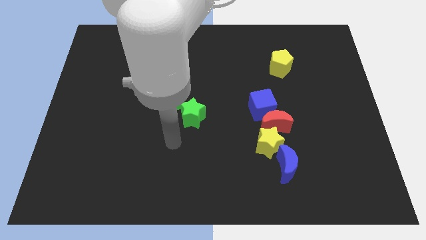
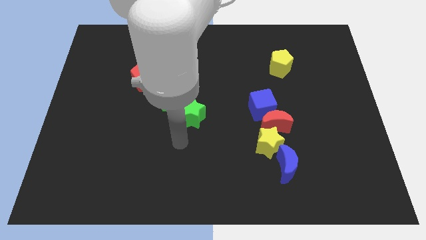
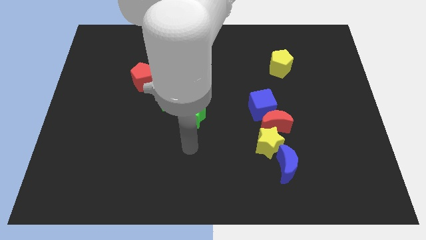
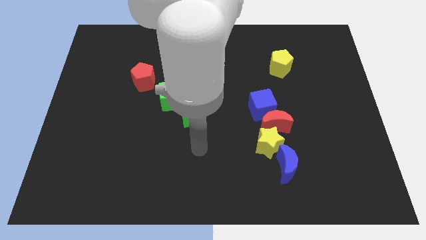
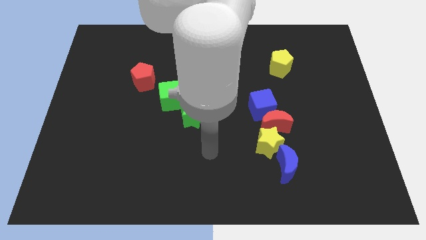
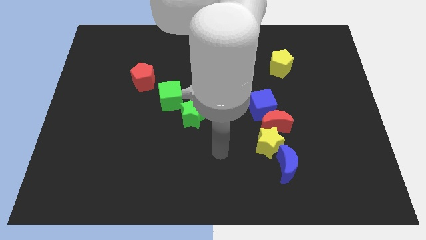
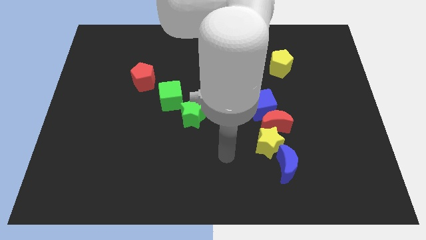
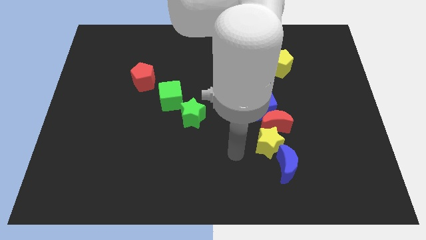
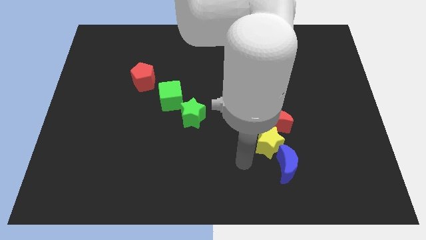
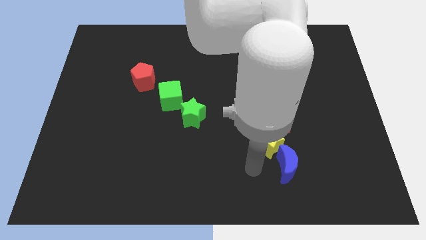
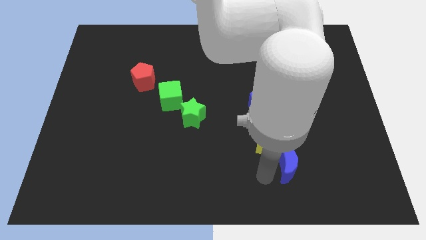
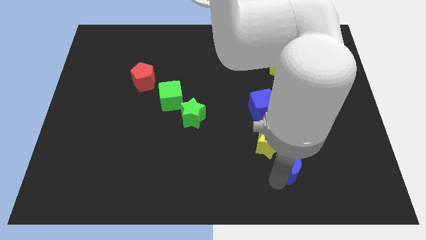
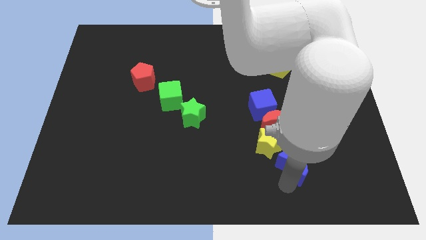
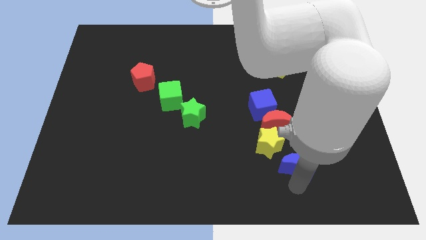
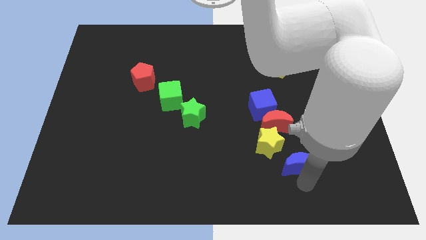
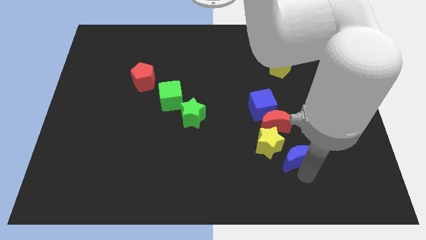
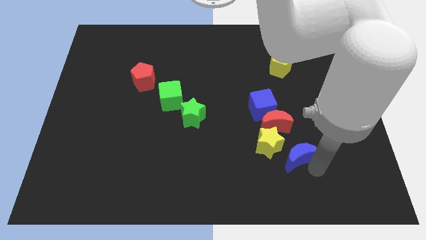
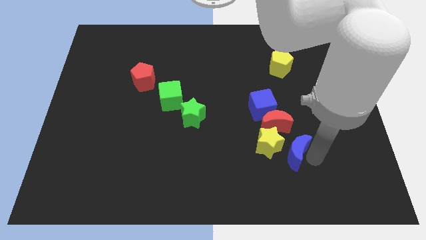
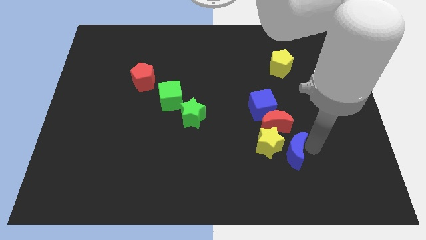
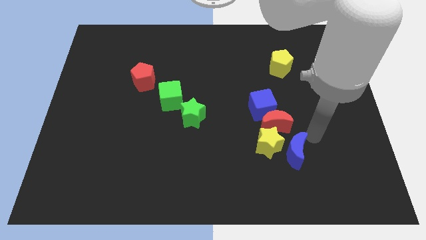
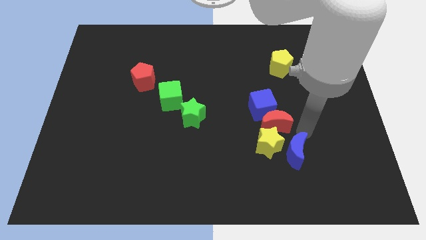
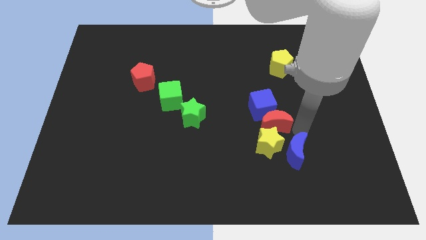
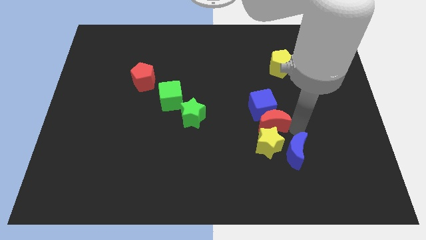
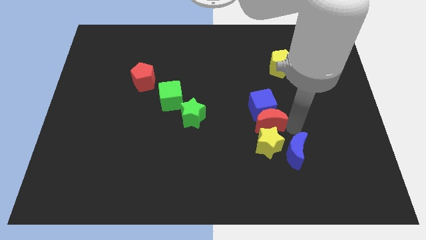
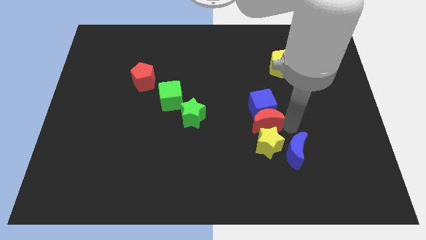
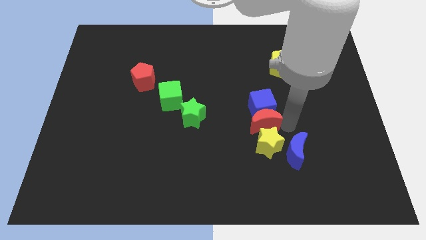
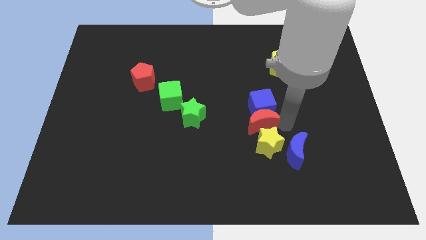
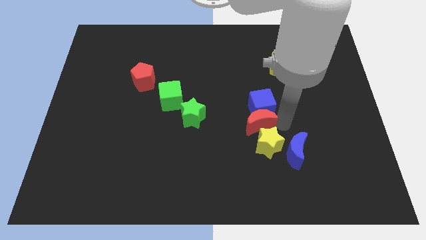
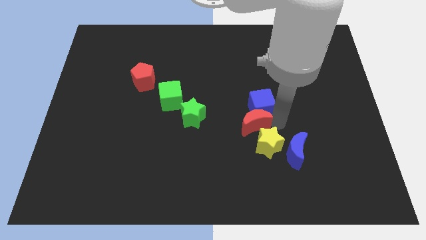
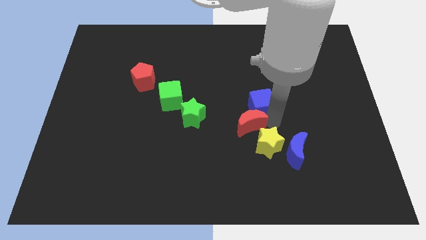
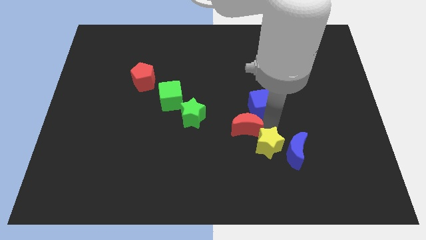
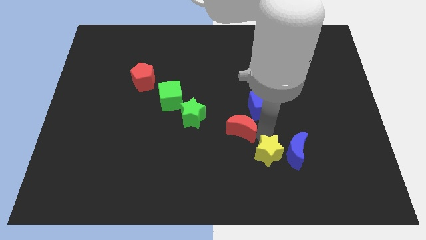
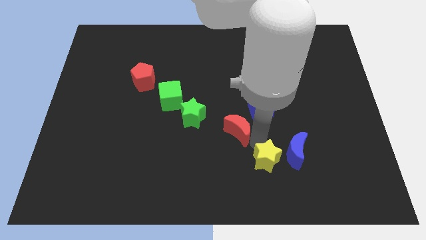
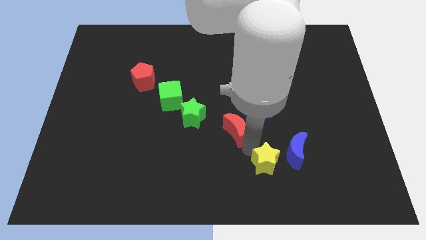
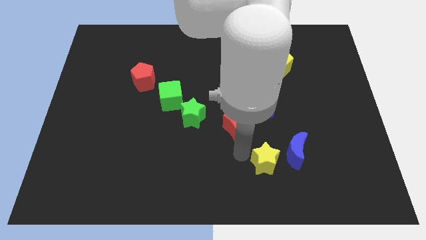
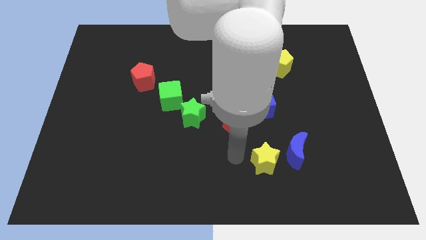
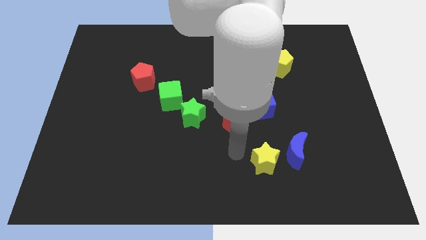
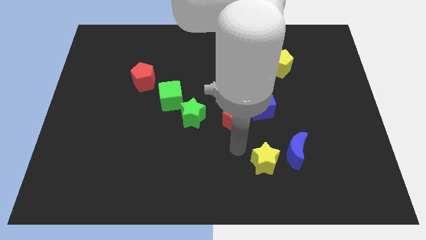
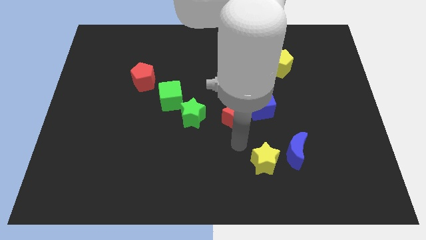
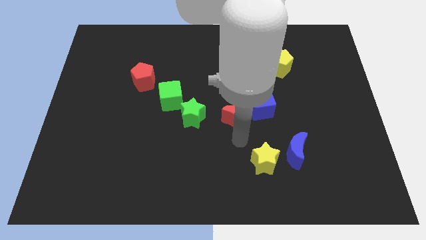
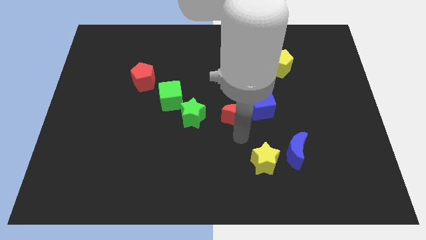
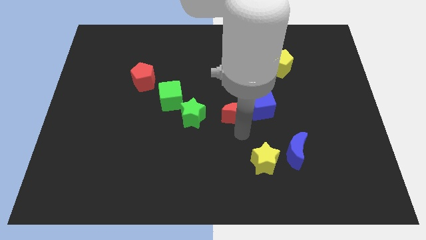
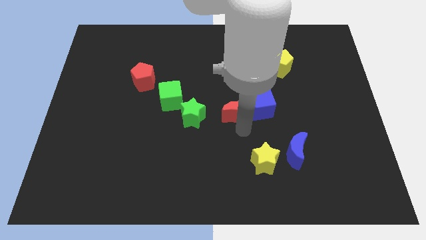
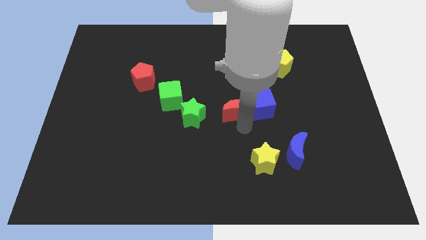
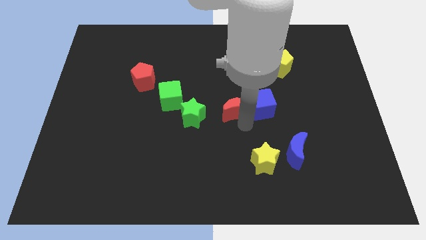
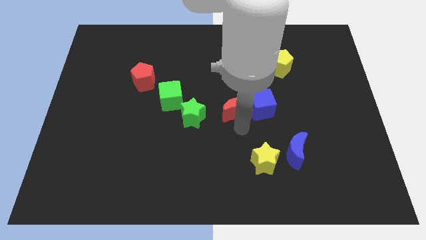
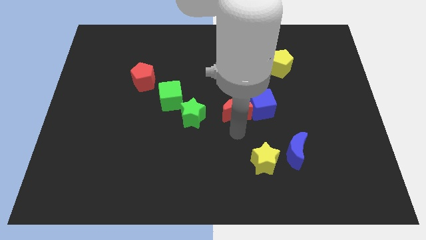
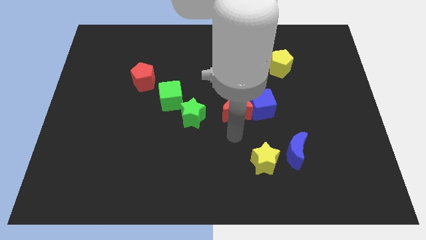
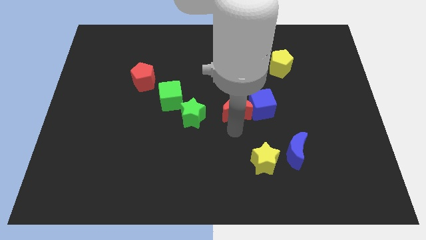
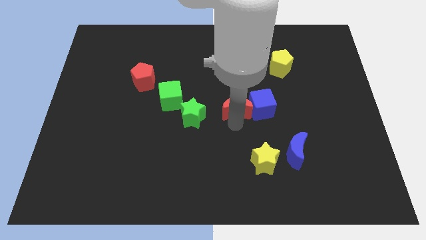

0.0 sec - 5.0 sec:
slide the red moon diagonally up and to the left of the blue cube

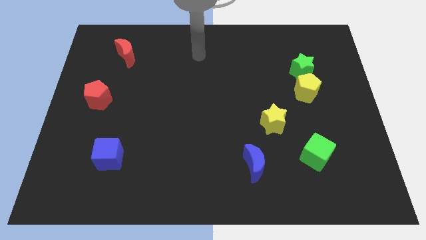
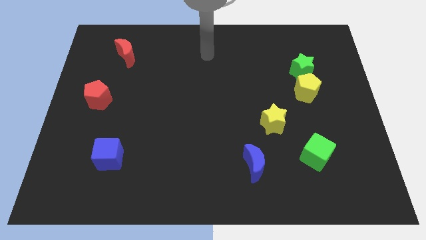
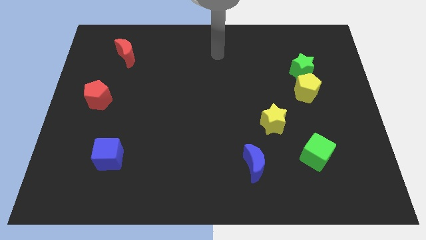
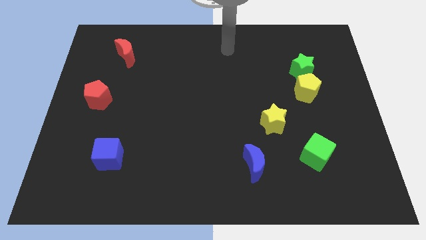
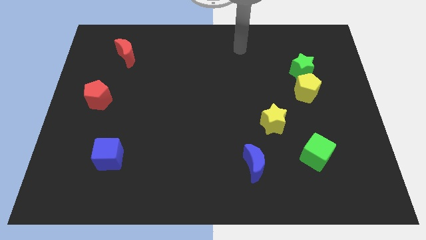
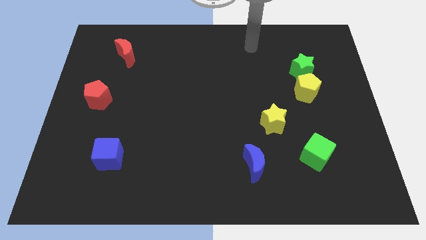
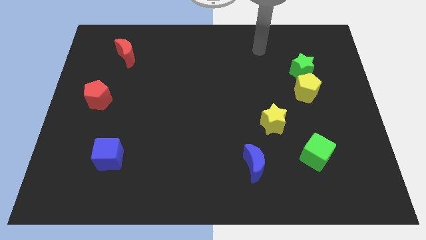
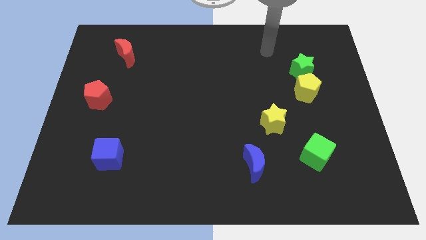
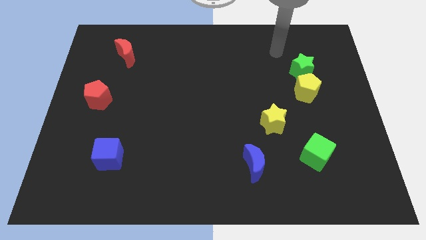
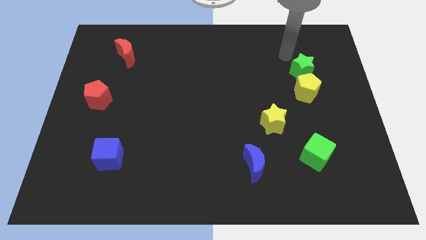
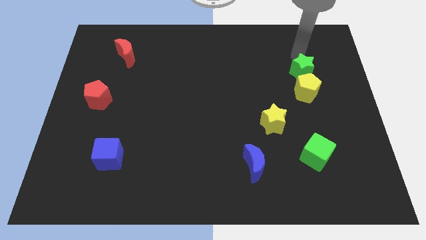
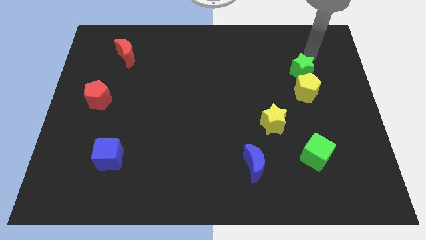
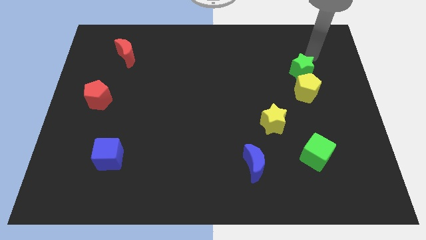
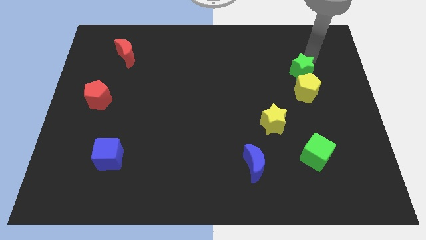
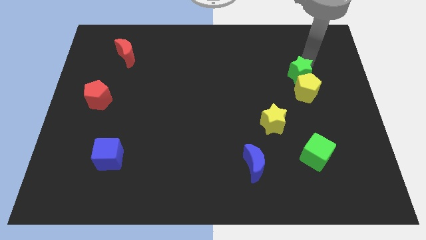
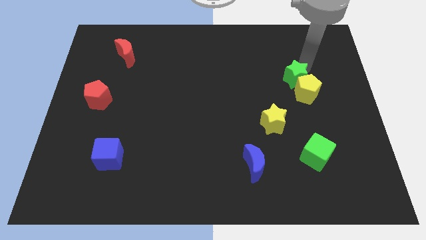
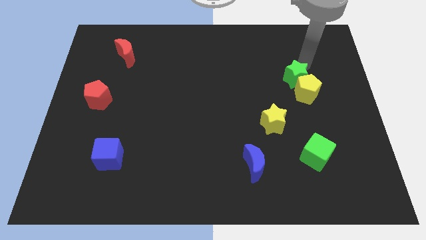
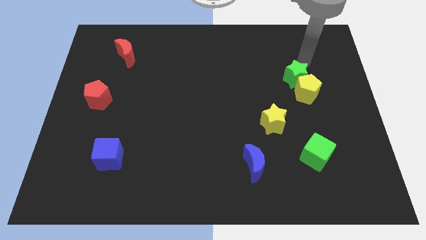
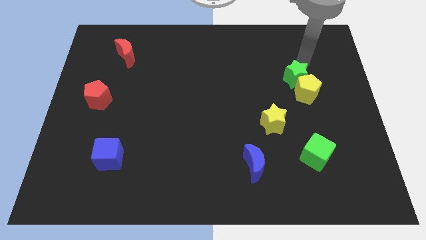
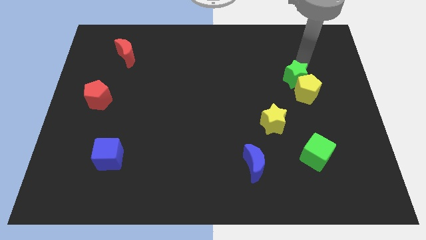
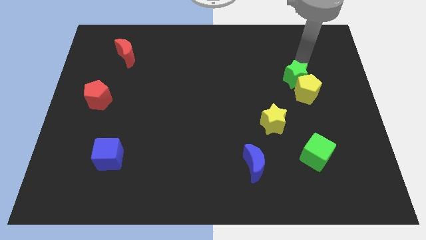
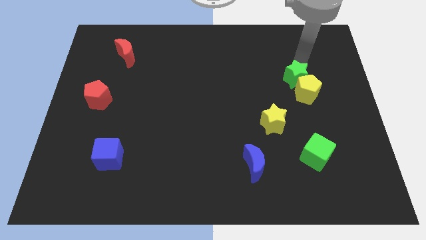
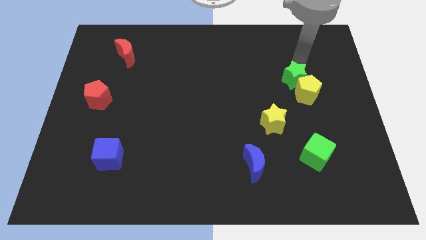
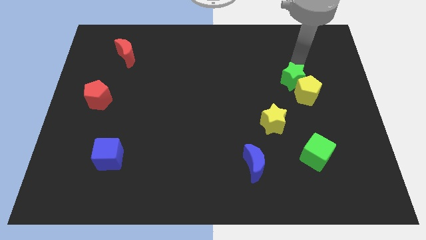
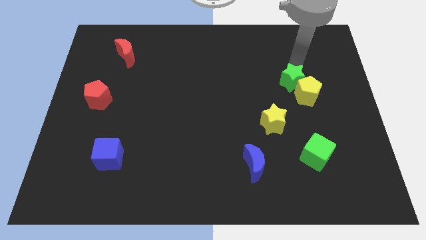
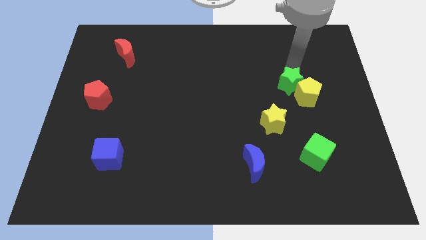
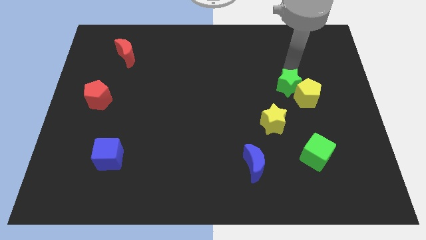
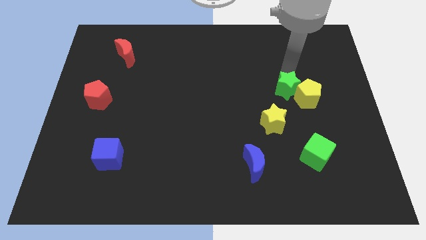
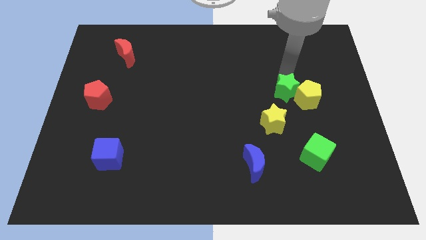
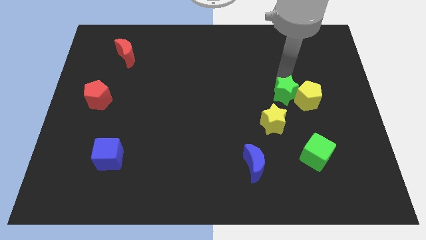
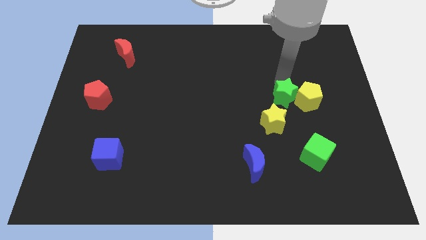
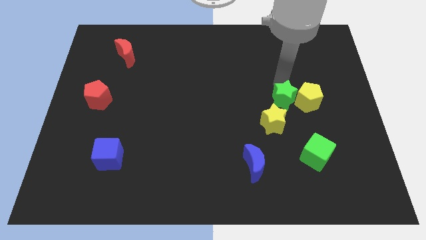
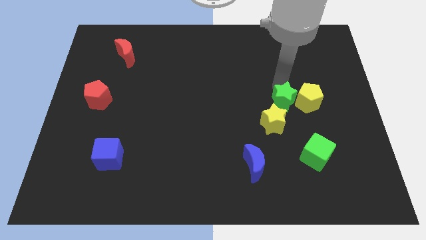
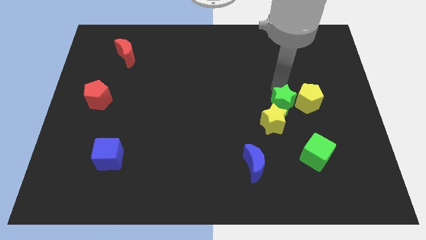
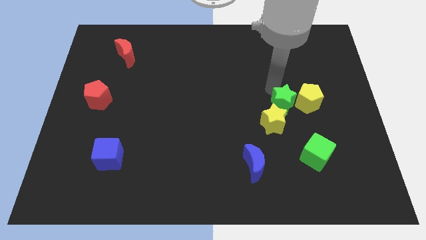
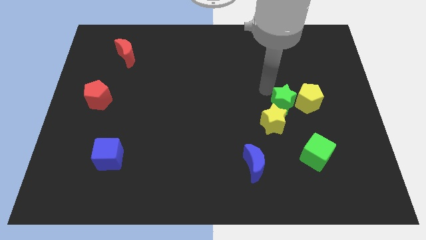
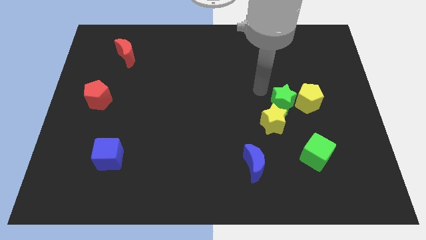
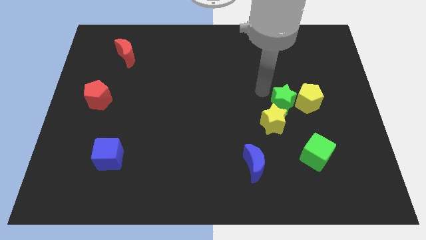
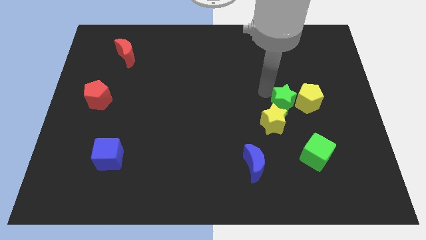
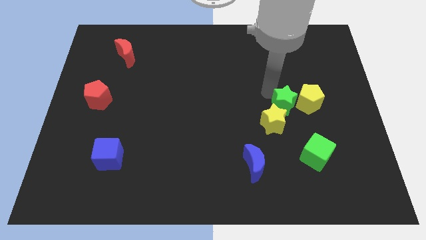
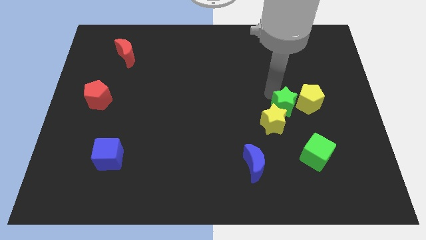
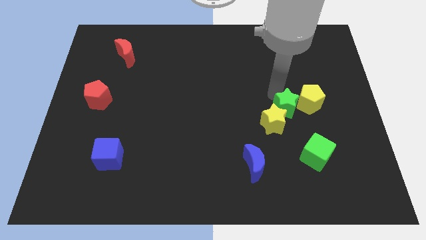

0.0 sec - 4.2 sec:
slide the green star above the green cube
